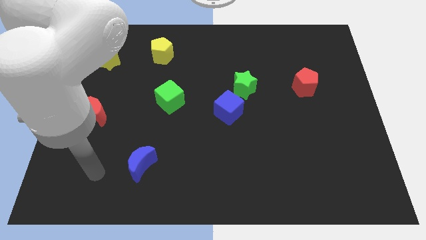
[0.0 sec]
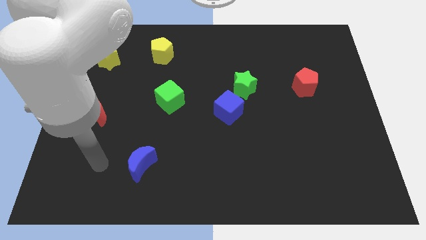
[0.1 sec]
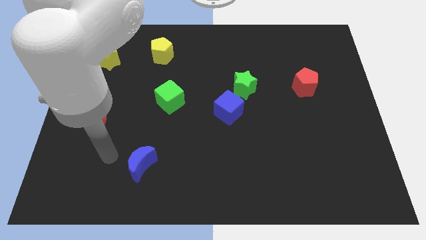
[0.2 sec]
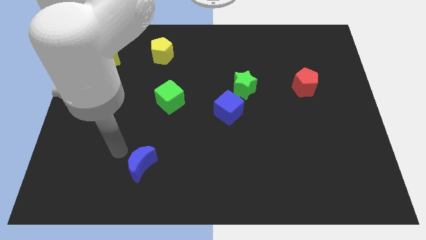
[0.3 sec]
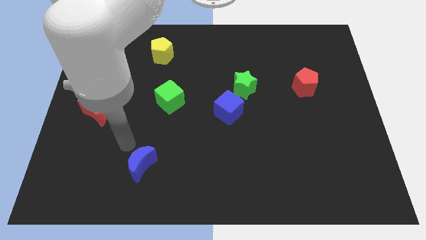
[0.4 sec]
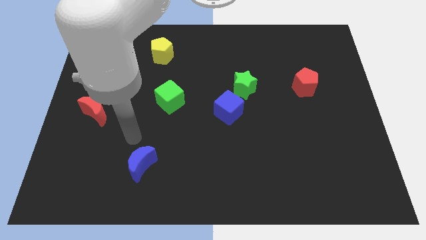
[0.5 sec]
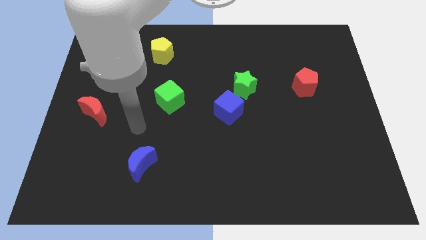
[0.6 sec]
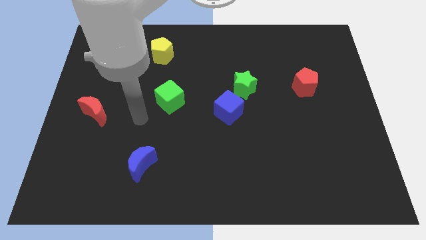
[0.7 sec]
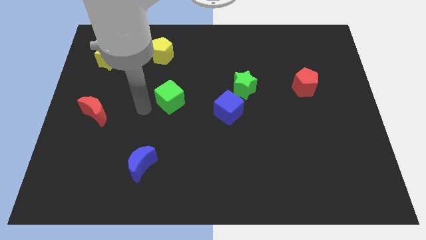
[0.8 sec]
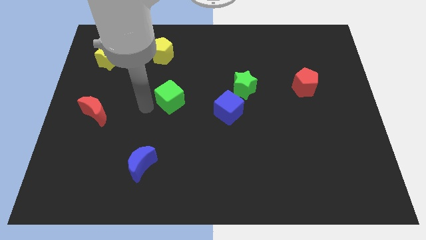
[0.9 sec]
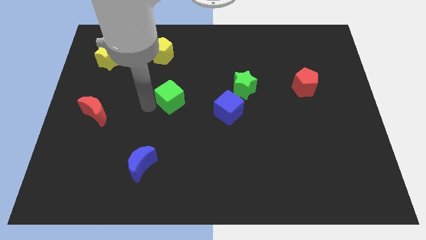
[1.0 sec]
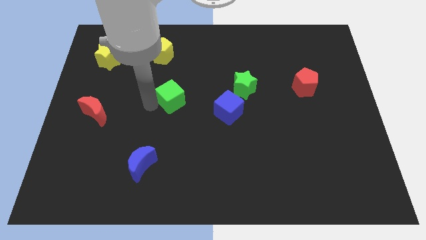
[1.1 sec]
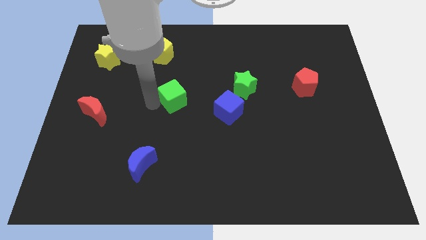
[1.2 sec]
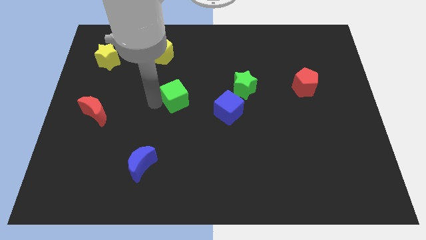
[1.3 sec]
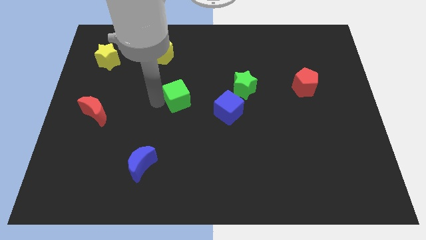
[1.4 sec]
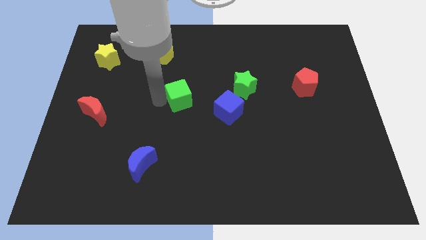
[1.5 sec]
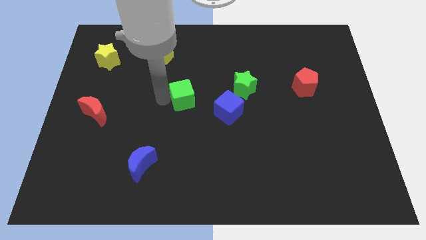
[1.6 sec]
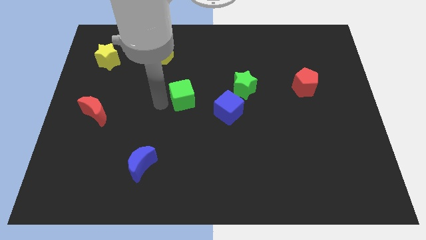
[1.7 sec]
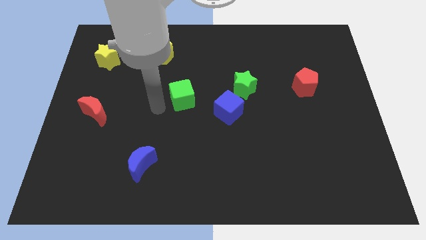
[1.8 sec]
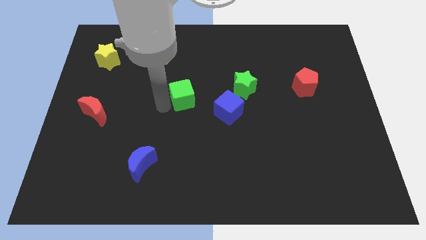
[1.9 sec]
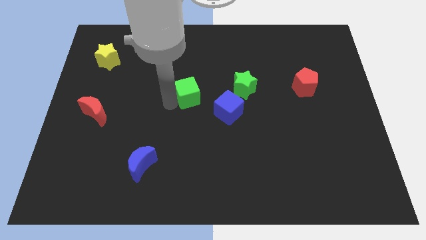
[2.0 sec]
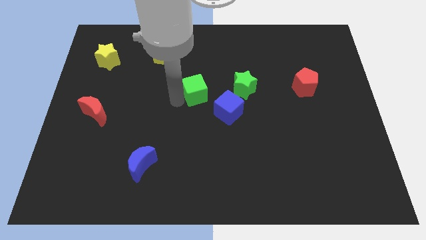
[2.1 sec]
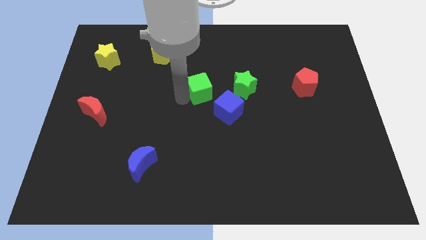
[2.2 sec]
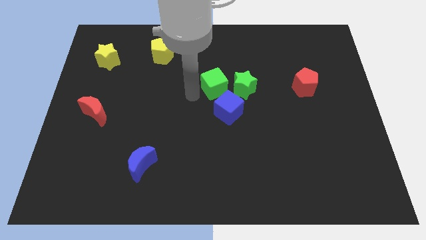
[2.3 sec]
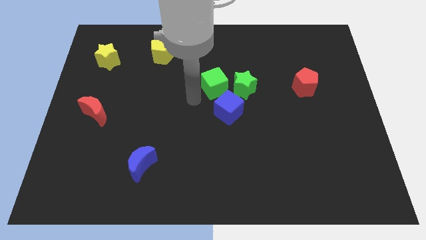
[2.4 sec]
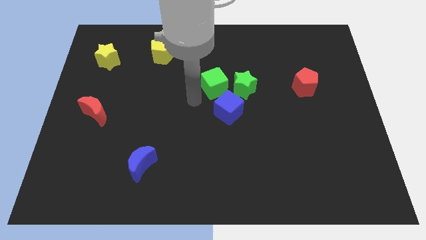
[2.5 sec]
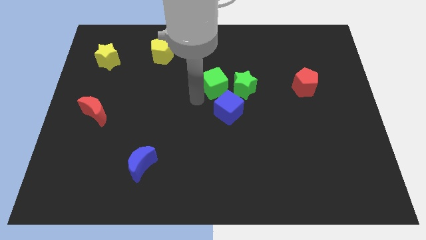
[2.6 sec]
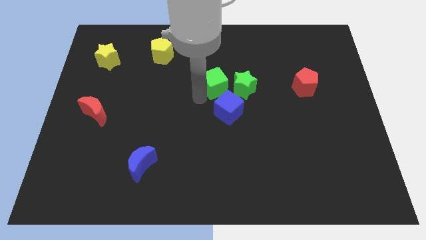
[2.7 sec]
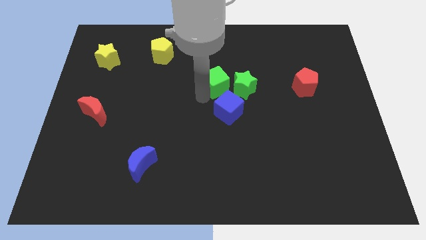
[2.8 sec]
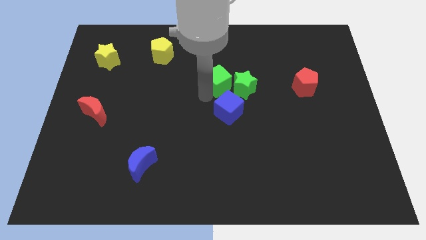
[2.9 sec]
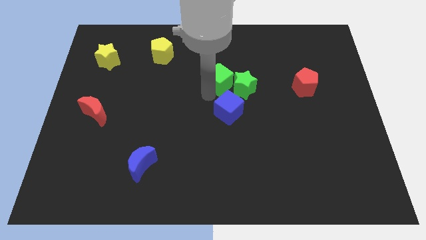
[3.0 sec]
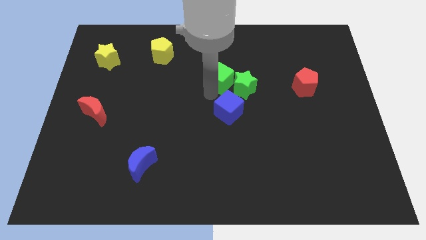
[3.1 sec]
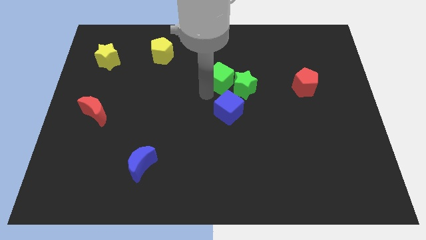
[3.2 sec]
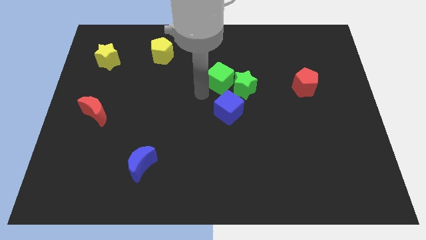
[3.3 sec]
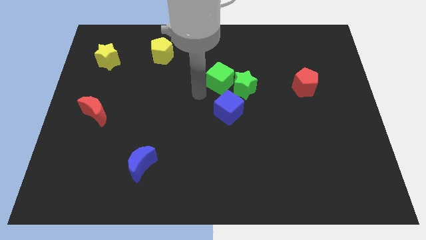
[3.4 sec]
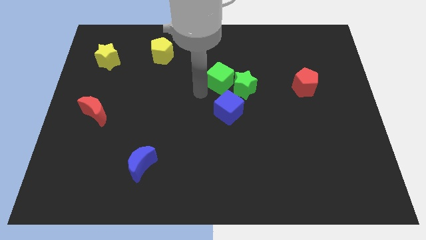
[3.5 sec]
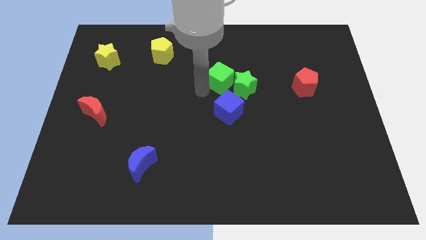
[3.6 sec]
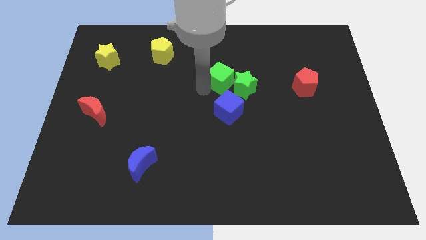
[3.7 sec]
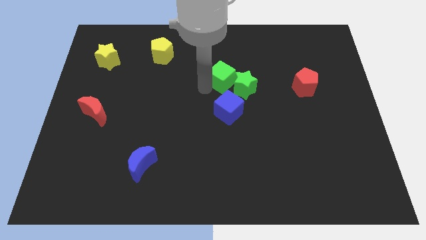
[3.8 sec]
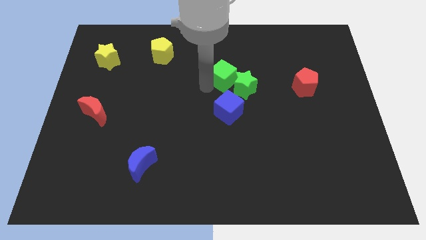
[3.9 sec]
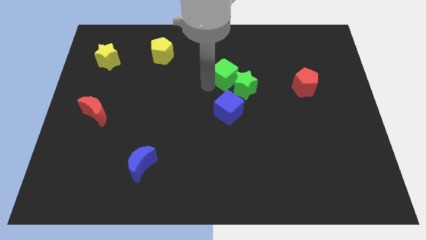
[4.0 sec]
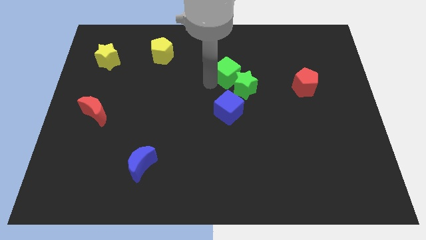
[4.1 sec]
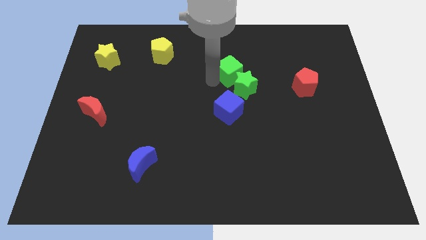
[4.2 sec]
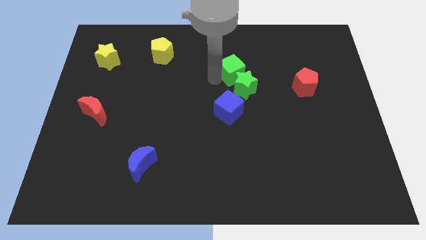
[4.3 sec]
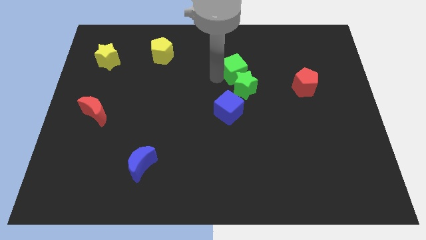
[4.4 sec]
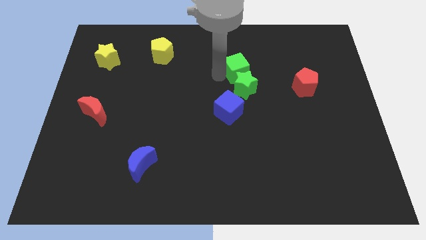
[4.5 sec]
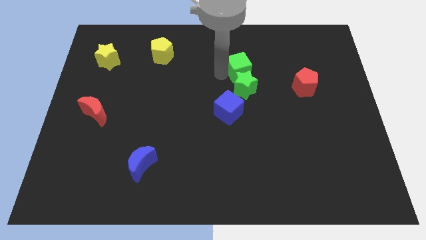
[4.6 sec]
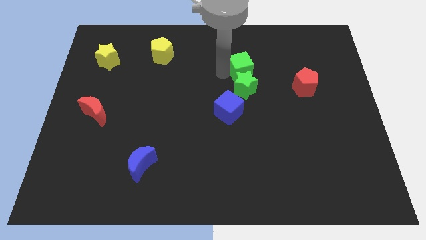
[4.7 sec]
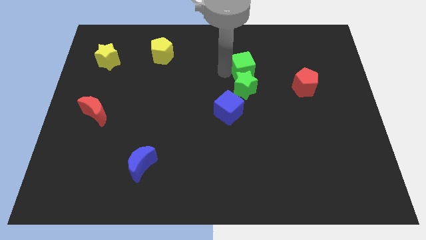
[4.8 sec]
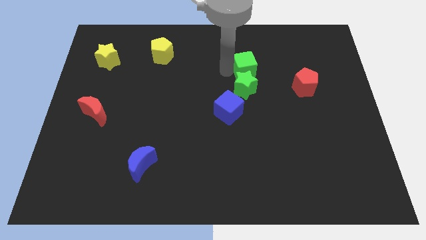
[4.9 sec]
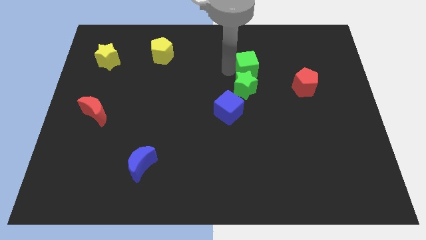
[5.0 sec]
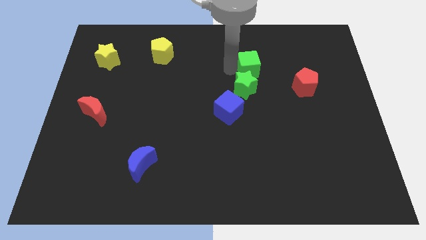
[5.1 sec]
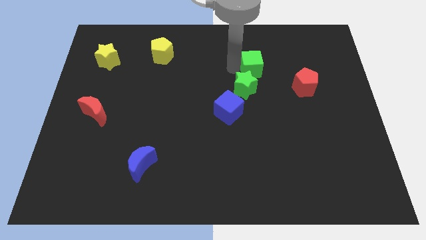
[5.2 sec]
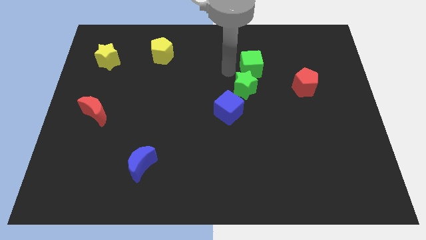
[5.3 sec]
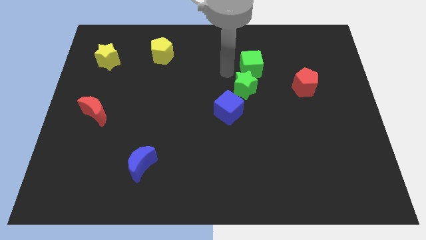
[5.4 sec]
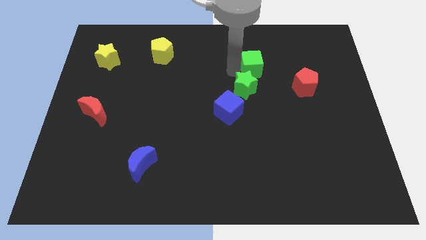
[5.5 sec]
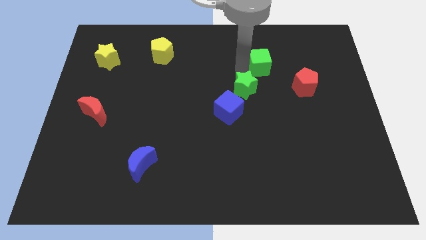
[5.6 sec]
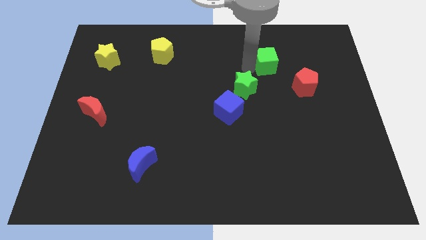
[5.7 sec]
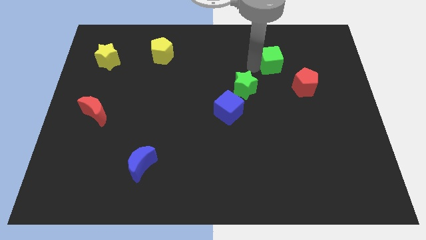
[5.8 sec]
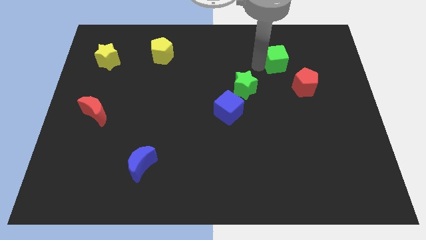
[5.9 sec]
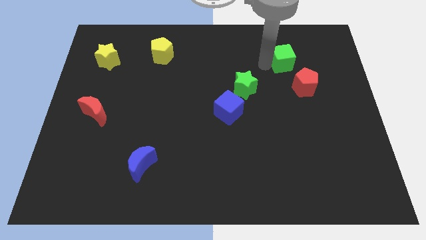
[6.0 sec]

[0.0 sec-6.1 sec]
move the green cube above the red pentagon

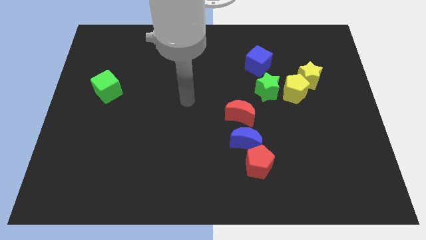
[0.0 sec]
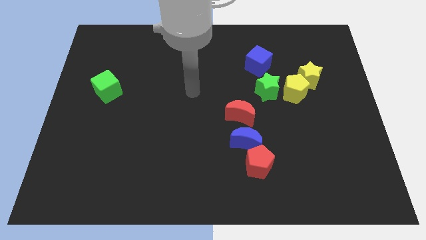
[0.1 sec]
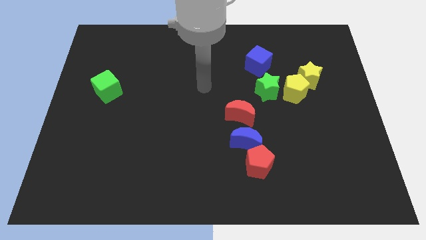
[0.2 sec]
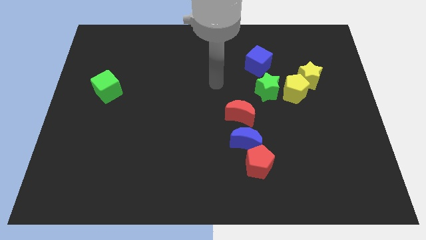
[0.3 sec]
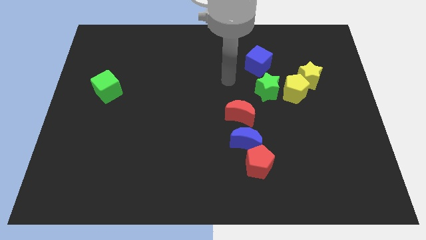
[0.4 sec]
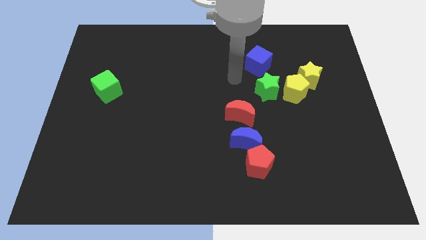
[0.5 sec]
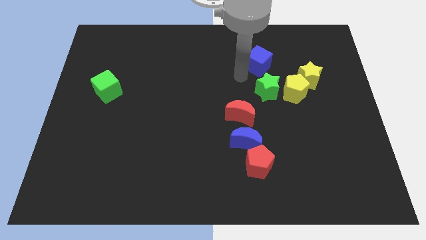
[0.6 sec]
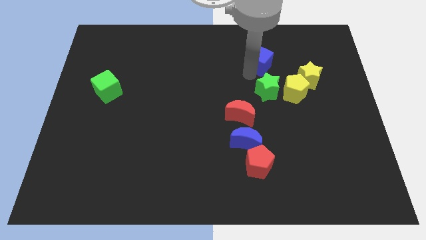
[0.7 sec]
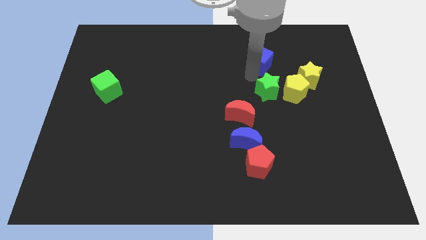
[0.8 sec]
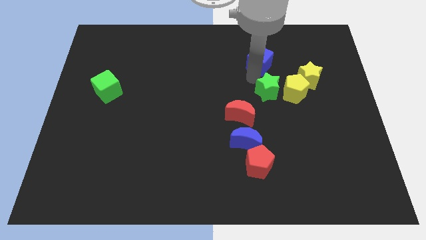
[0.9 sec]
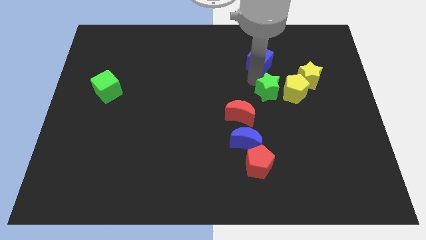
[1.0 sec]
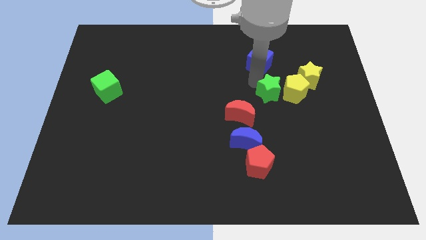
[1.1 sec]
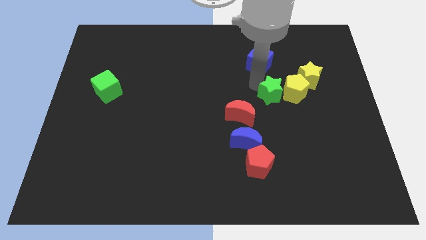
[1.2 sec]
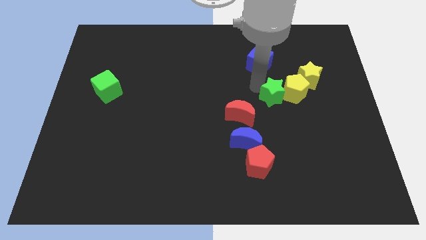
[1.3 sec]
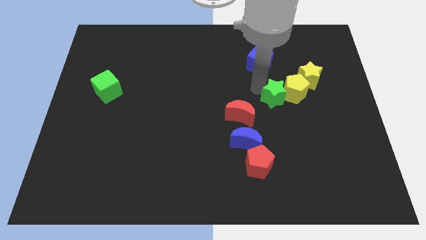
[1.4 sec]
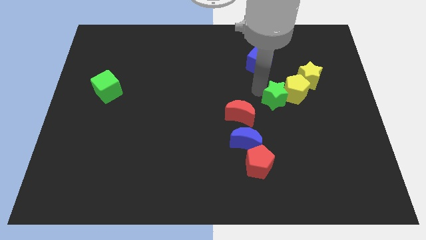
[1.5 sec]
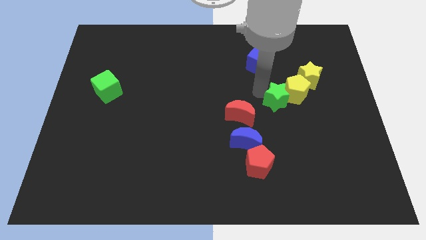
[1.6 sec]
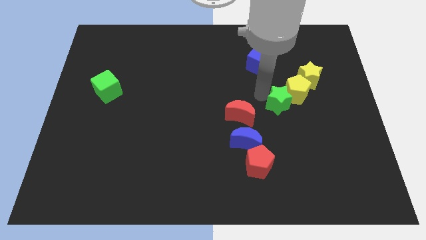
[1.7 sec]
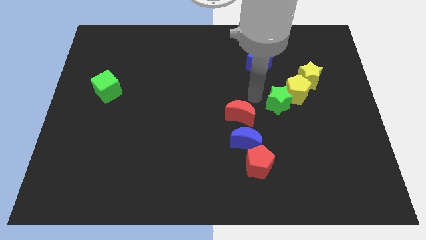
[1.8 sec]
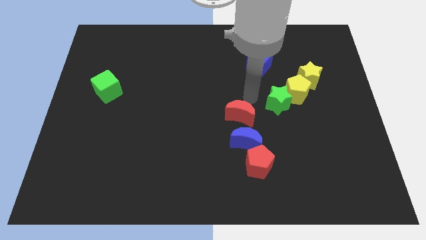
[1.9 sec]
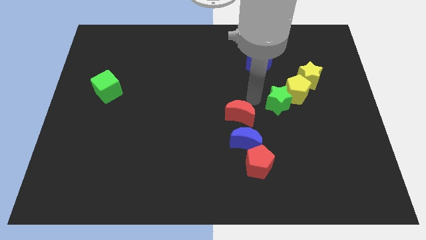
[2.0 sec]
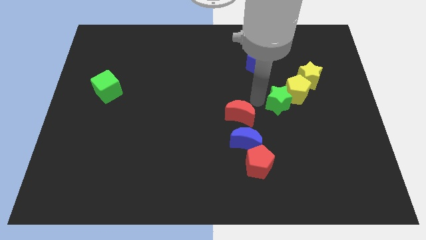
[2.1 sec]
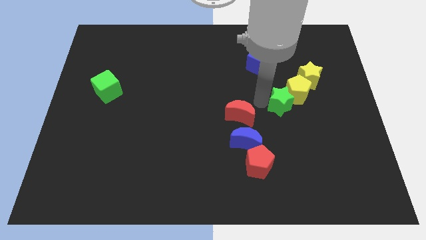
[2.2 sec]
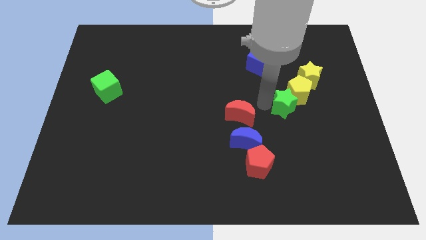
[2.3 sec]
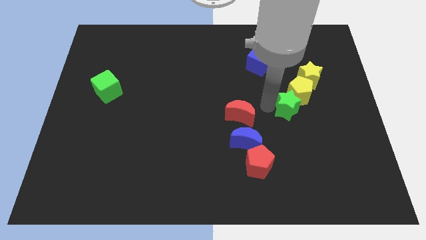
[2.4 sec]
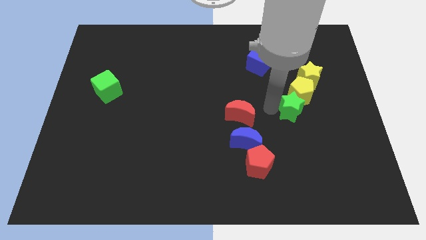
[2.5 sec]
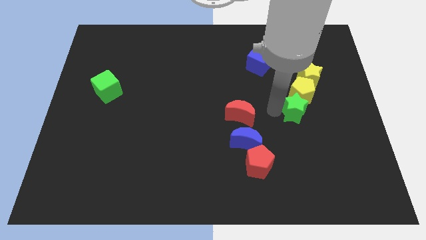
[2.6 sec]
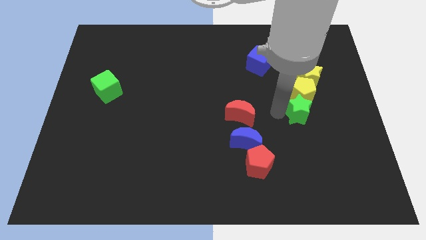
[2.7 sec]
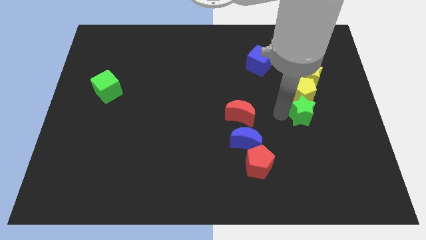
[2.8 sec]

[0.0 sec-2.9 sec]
move the green star to the bottom right side of the yellow pentagon
